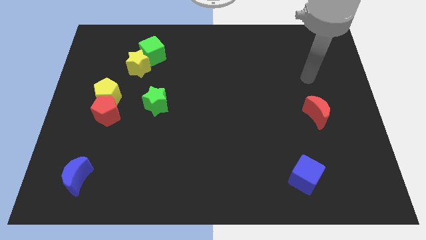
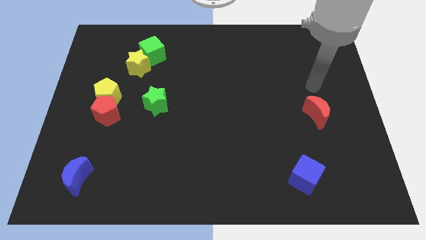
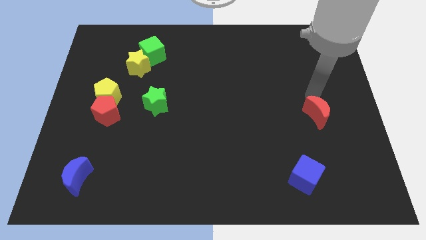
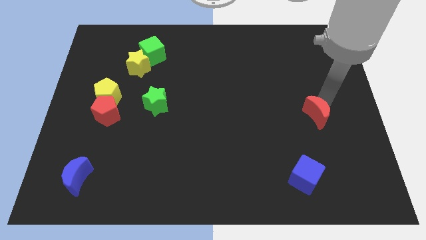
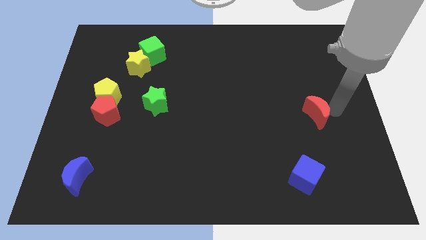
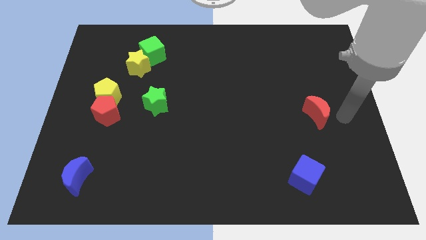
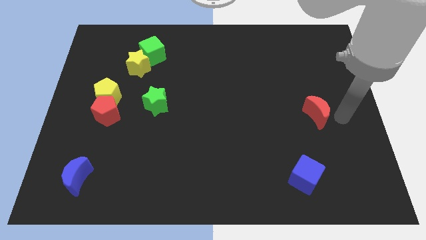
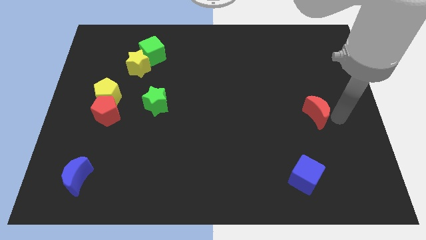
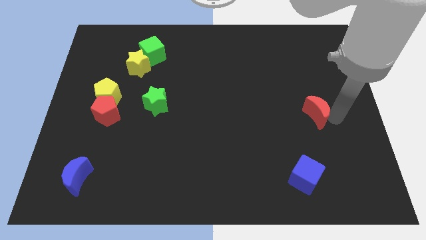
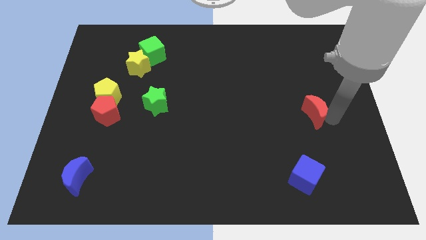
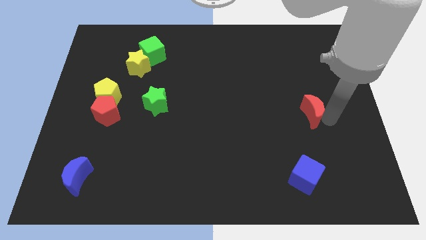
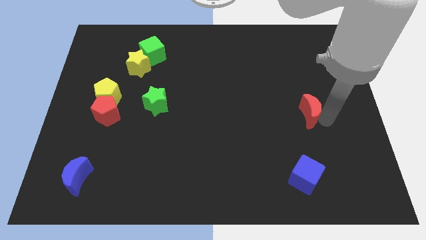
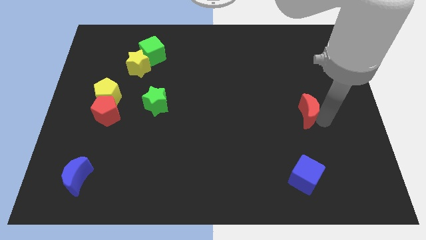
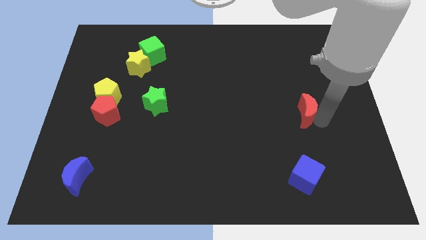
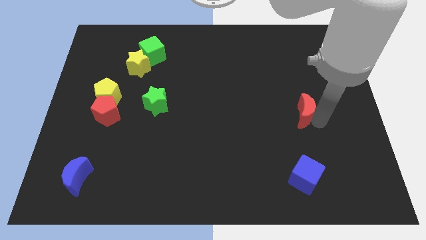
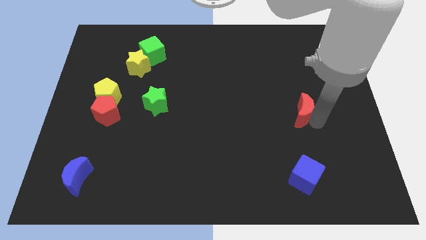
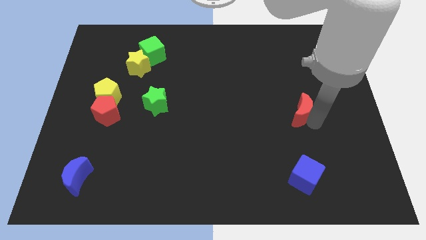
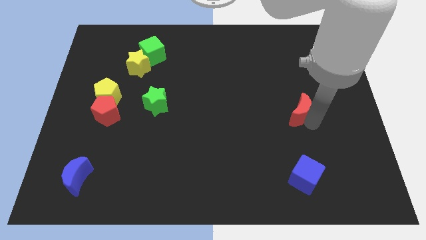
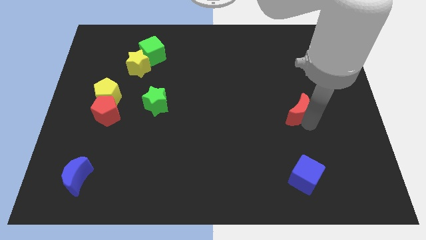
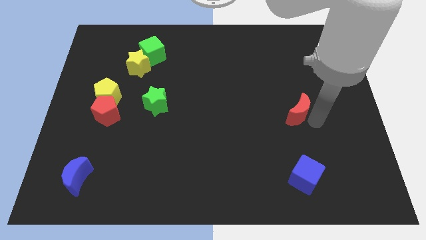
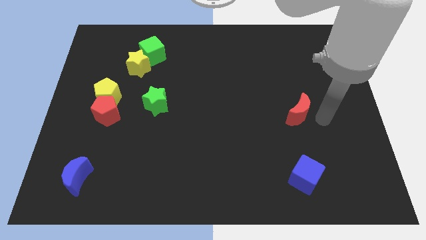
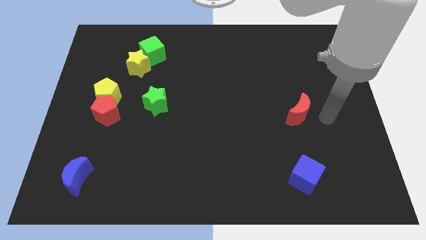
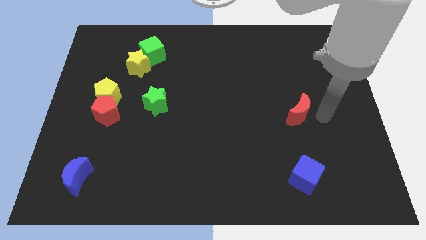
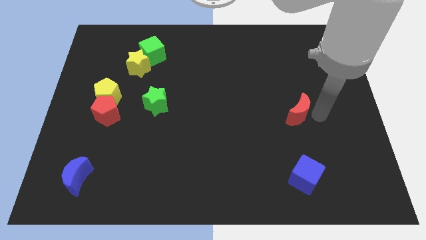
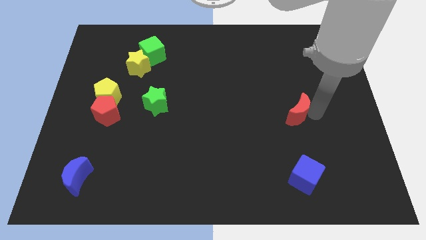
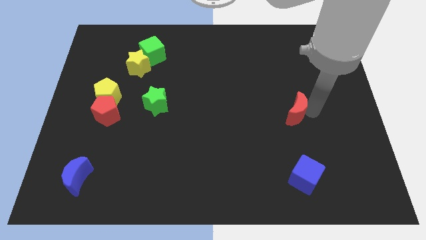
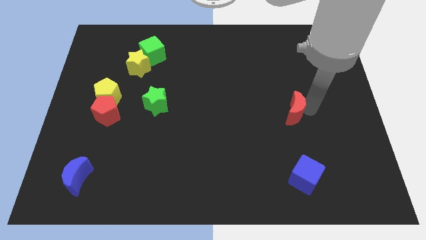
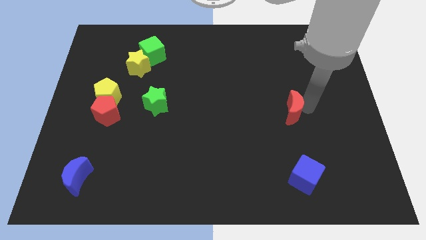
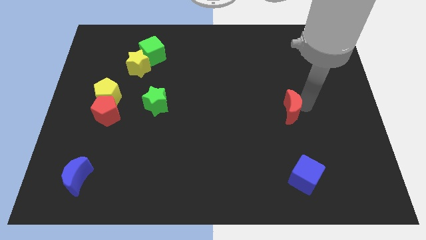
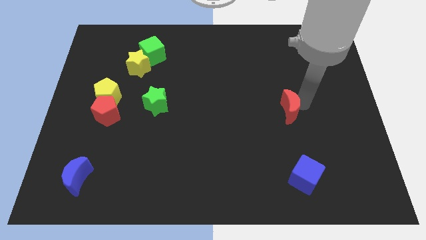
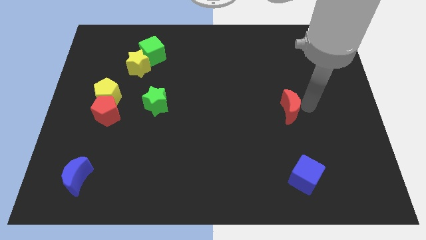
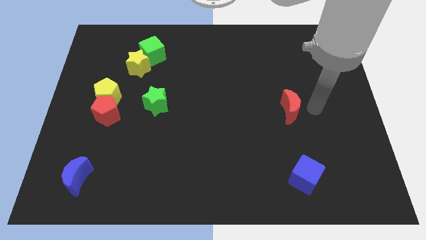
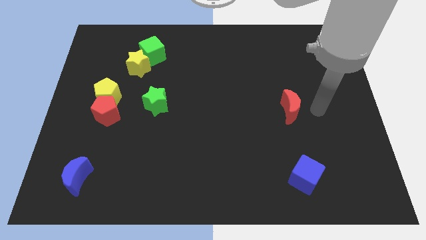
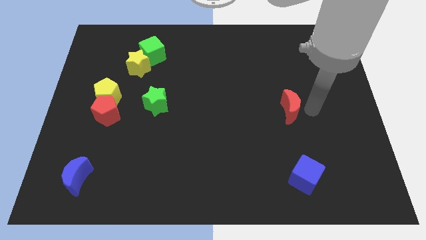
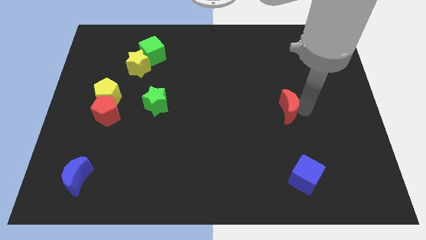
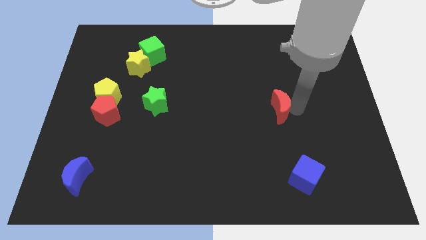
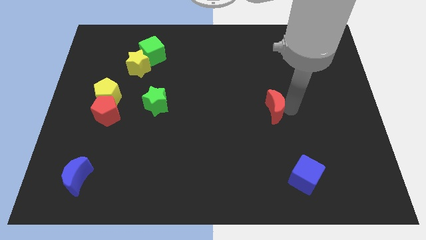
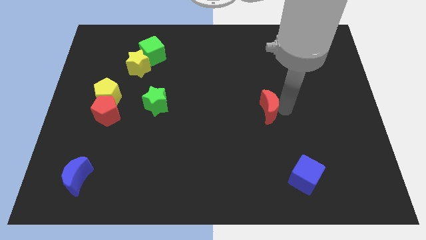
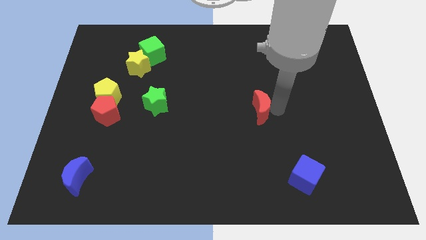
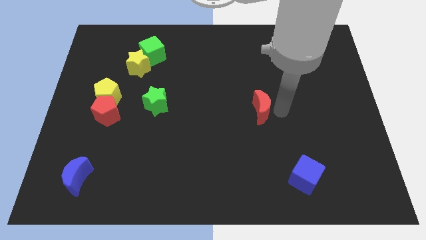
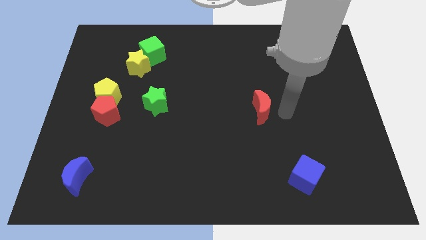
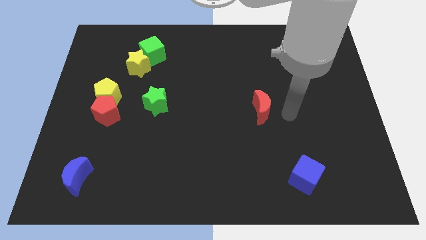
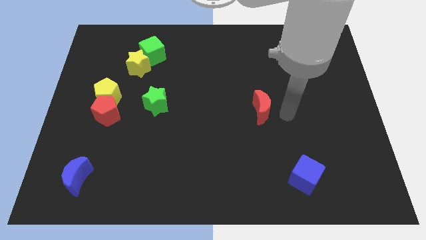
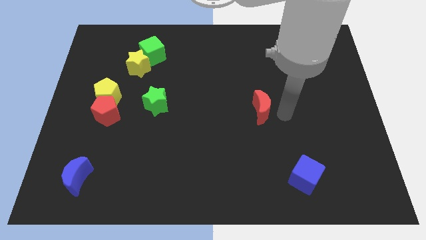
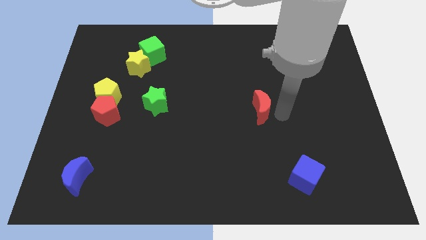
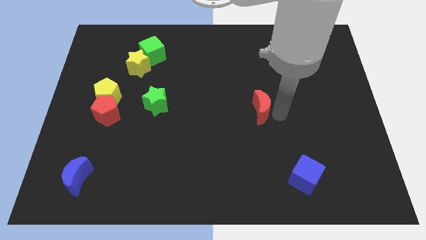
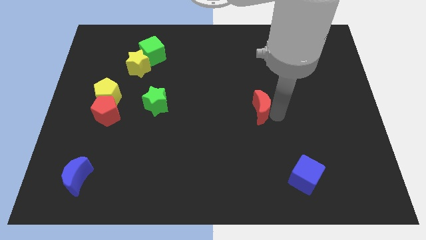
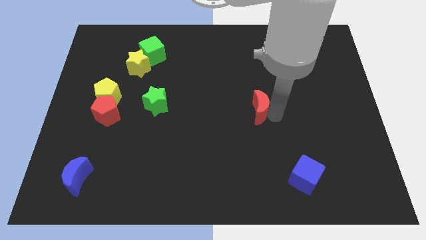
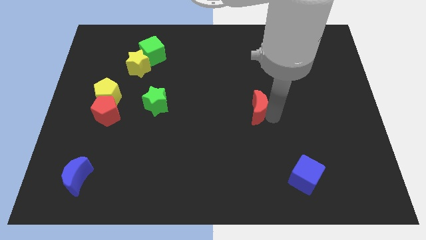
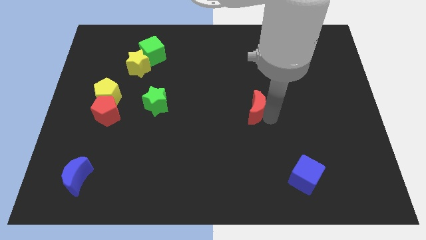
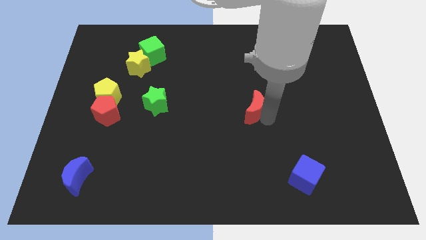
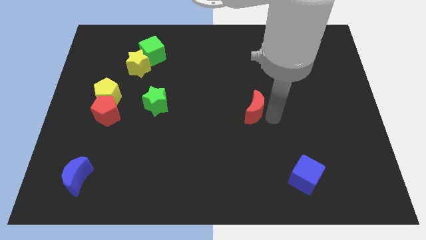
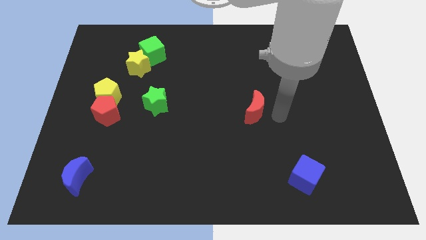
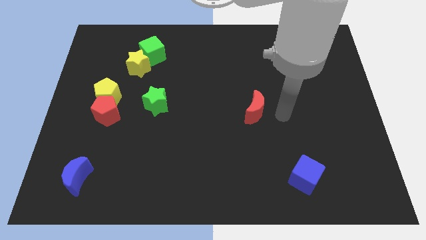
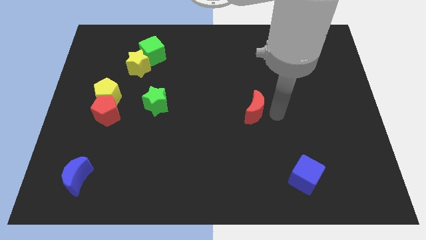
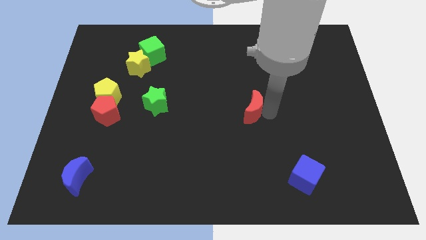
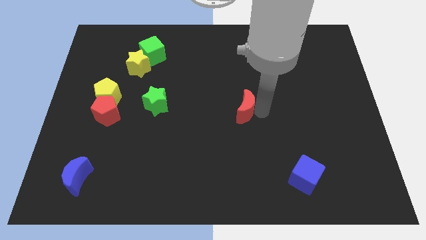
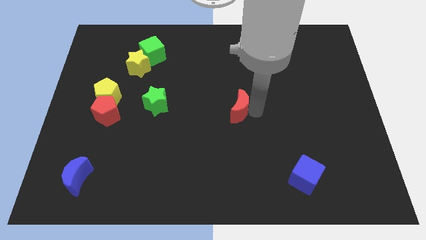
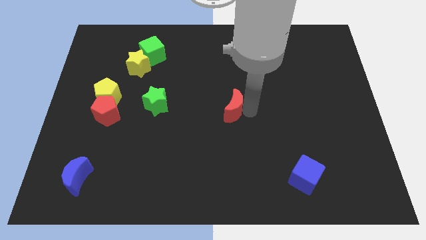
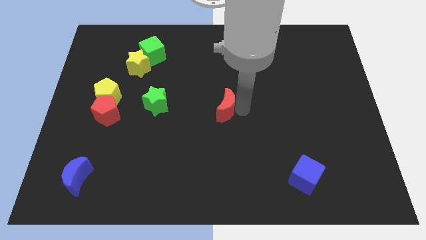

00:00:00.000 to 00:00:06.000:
move the red moon left

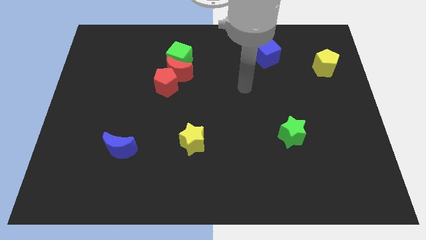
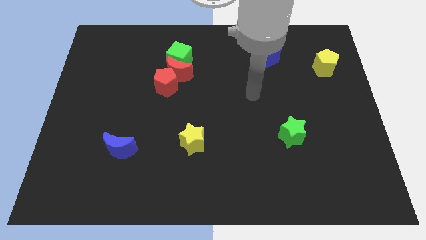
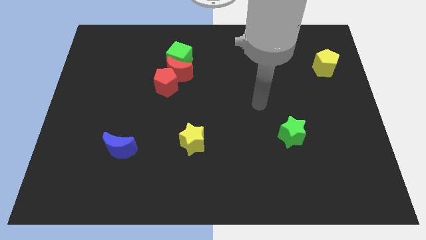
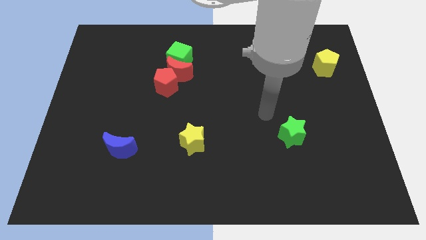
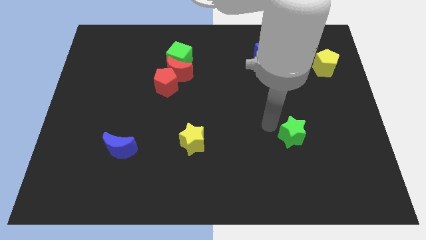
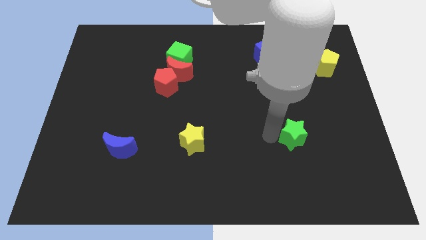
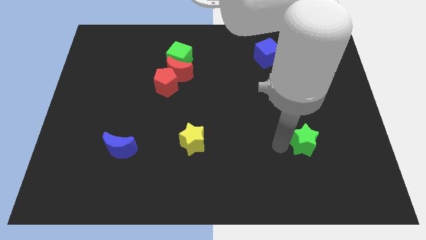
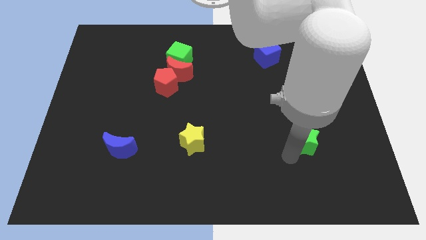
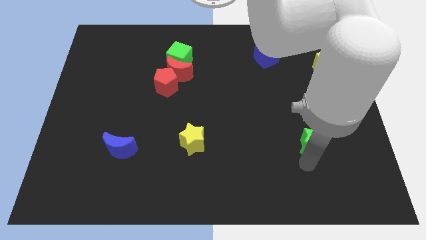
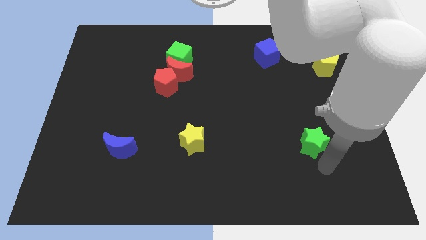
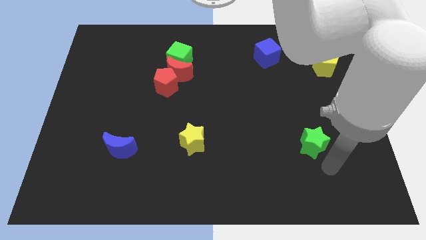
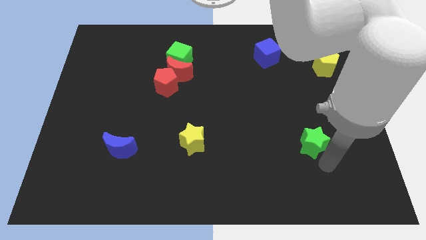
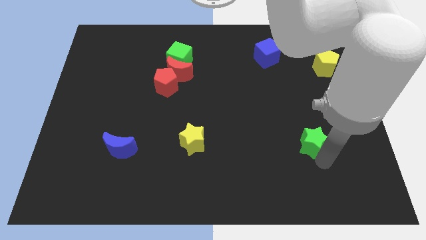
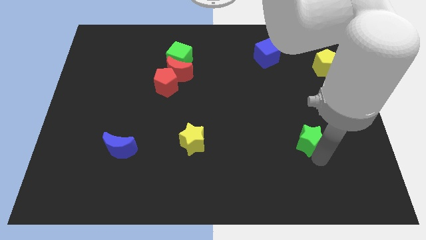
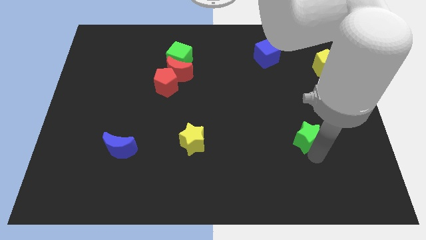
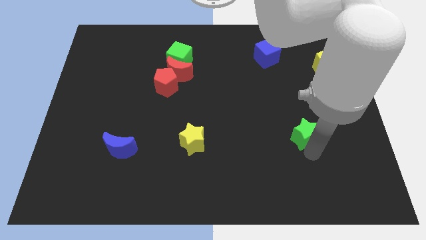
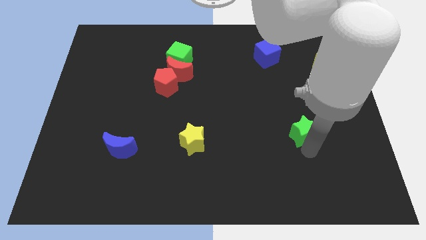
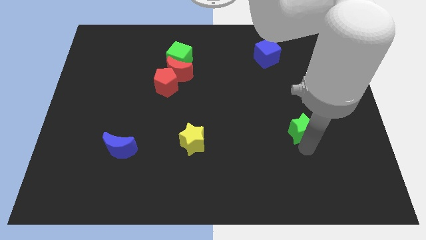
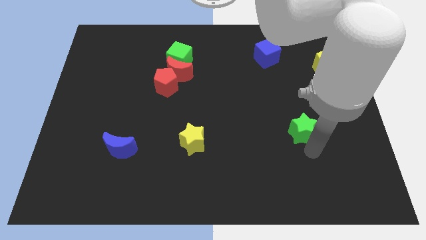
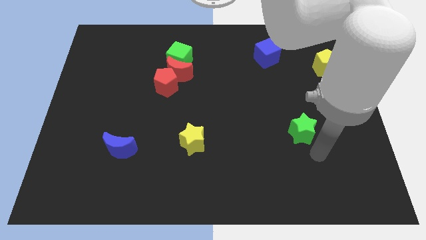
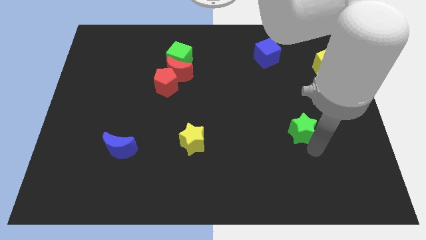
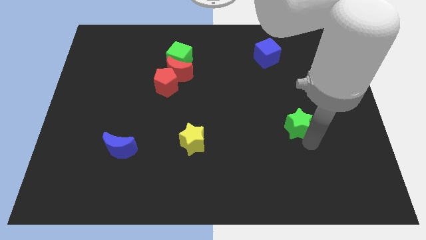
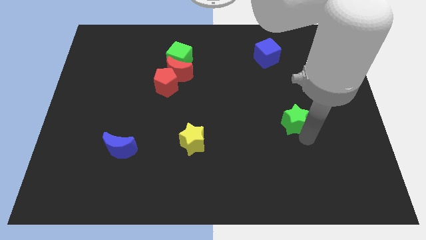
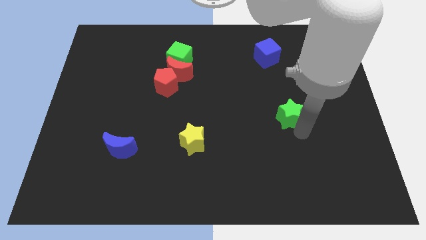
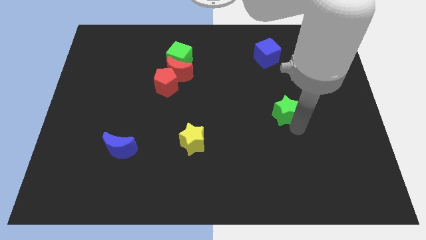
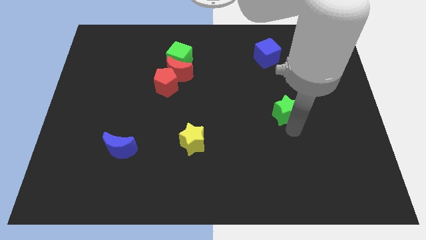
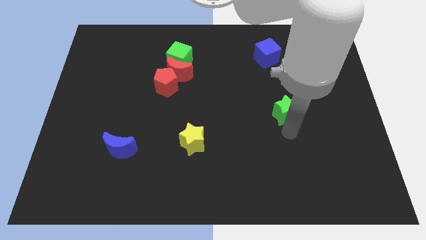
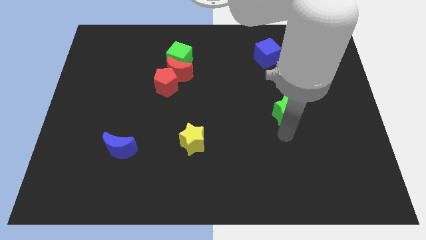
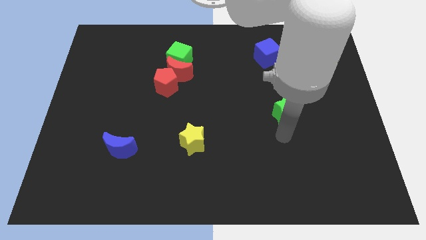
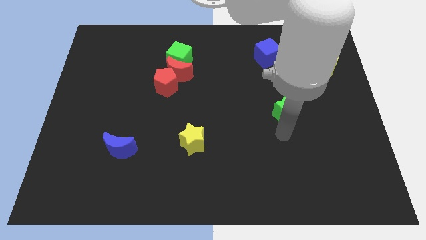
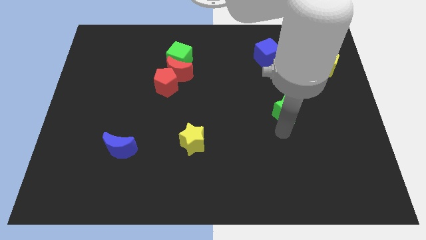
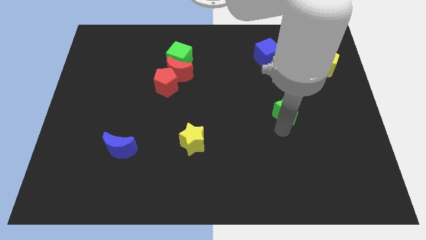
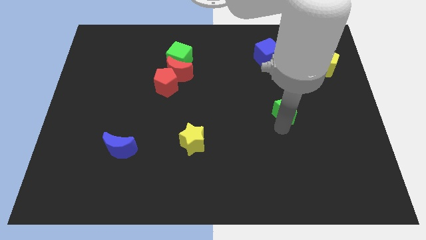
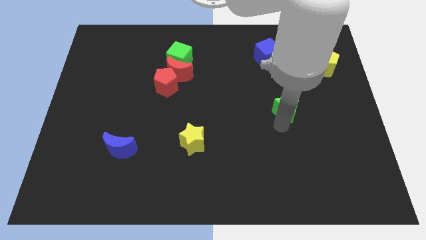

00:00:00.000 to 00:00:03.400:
push the green star a little bit up
